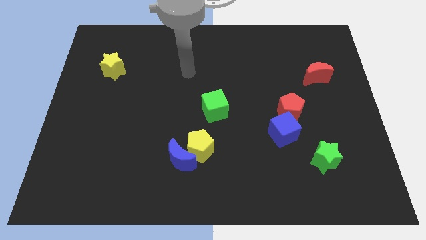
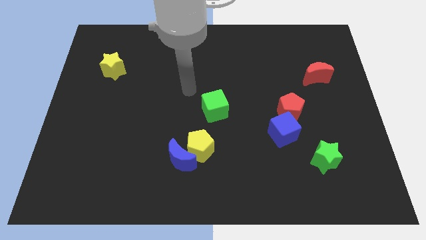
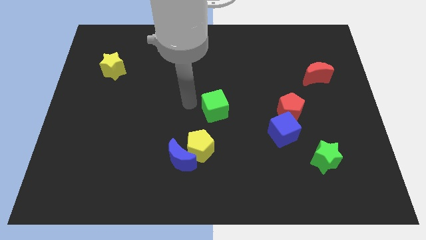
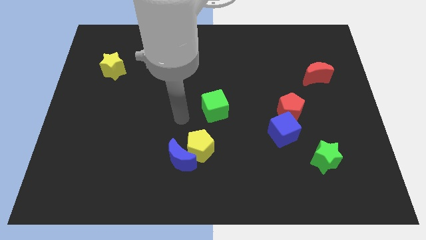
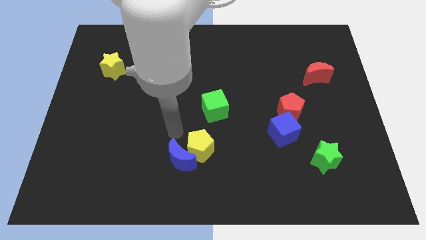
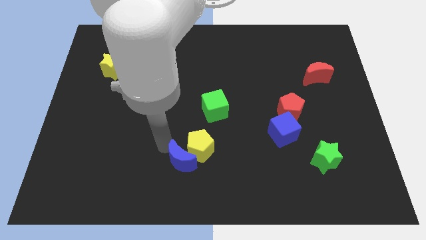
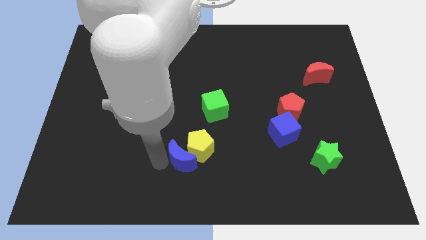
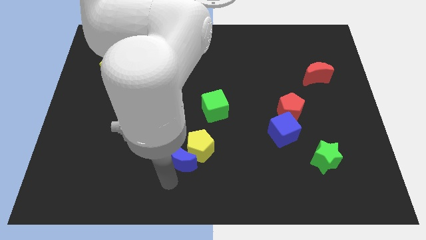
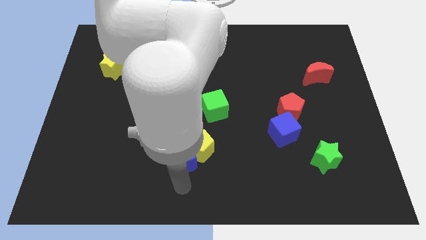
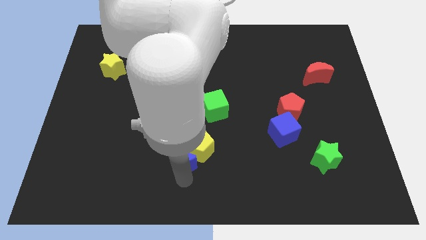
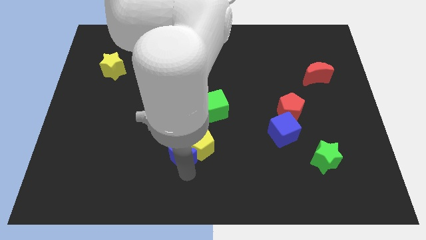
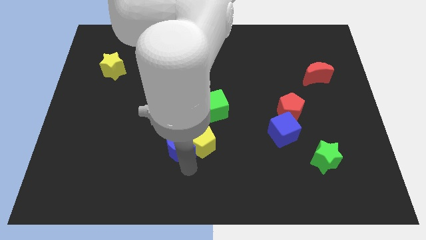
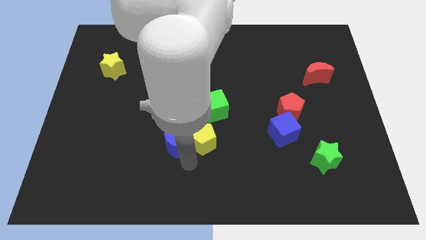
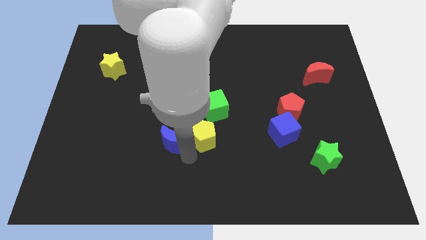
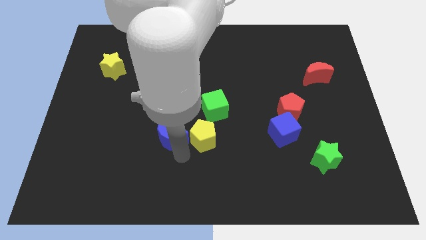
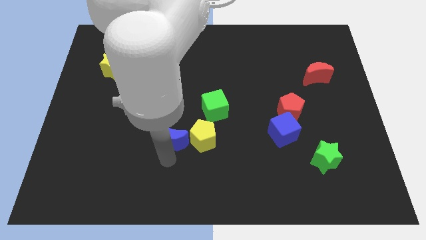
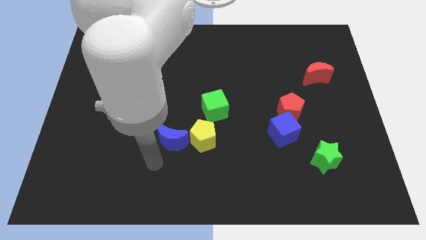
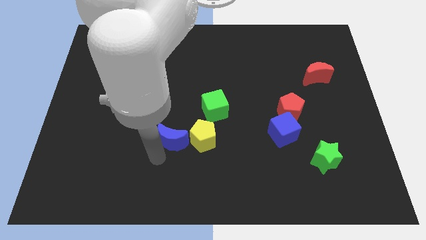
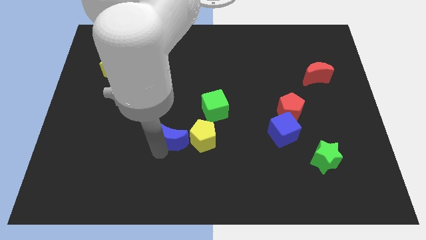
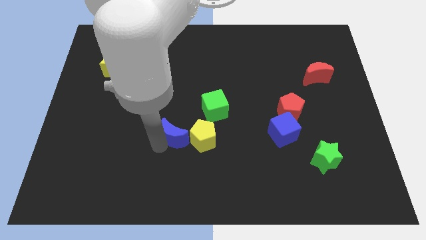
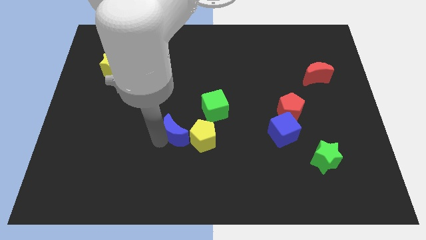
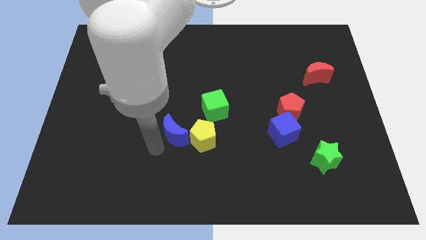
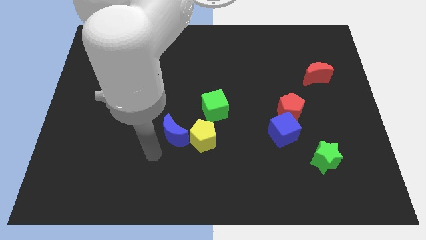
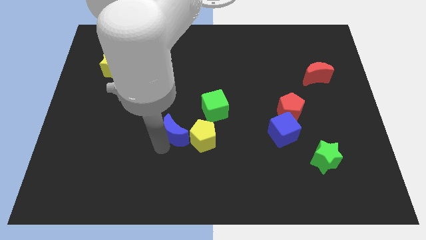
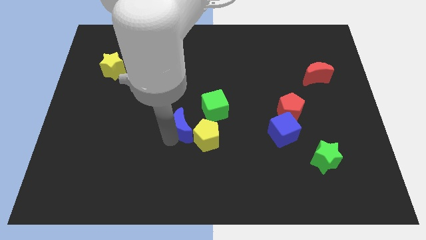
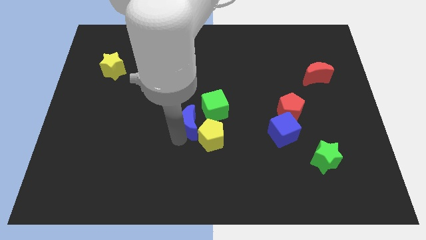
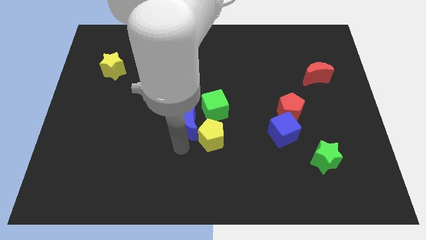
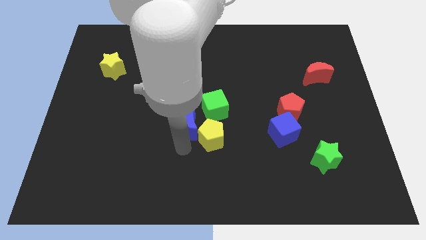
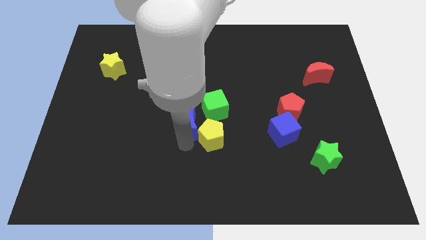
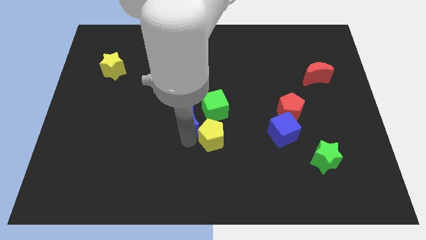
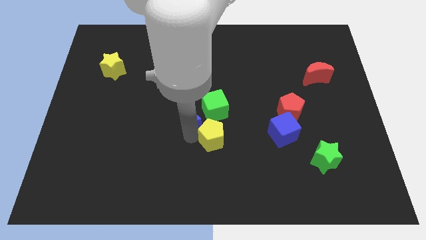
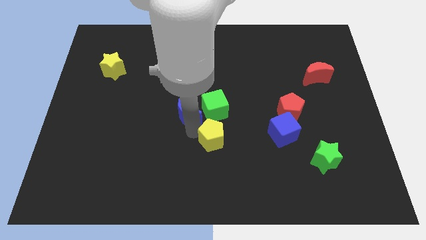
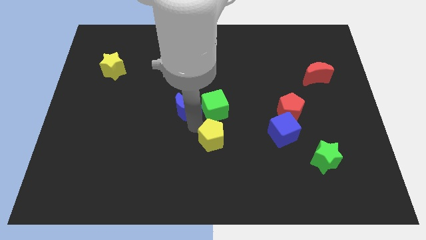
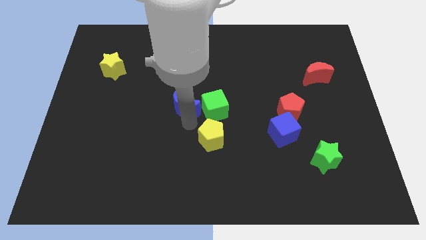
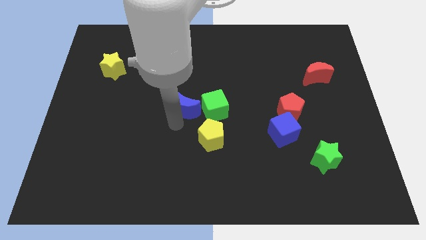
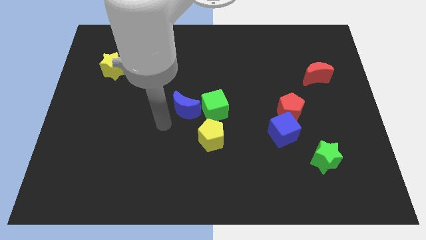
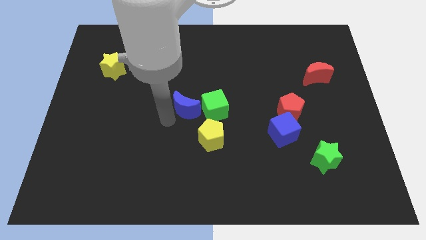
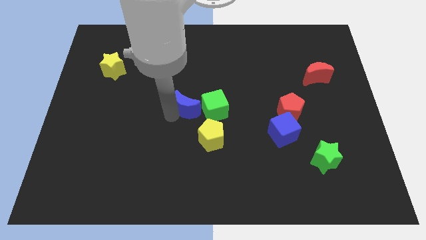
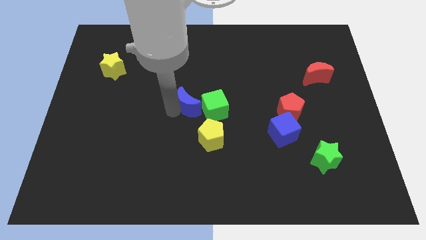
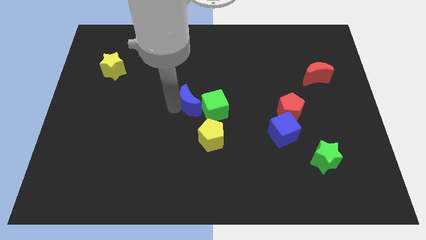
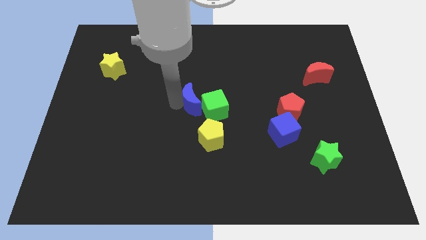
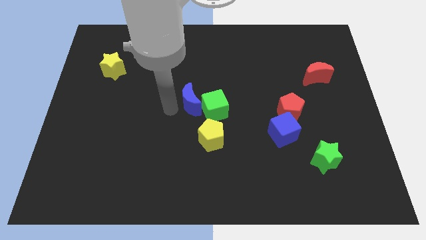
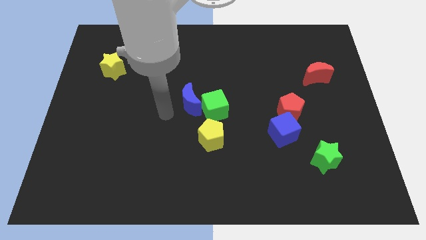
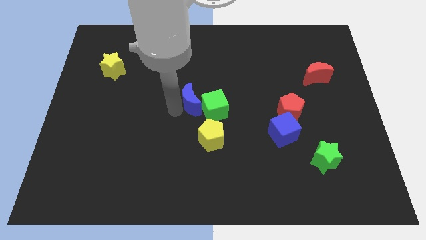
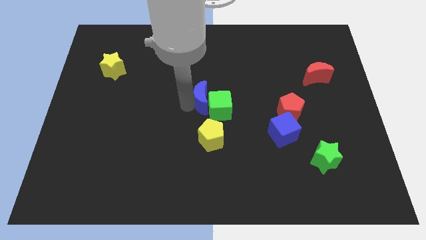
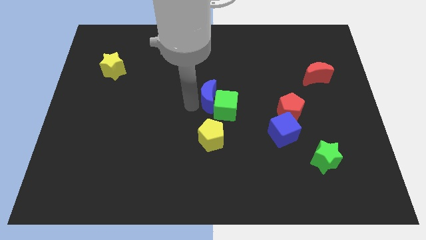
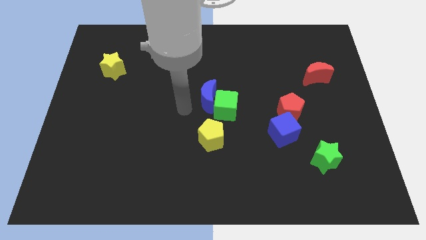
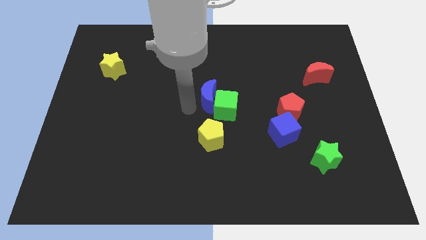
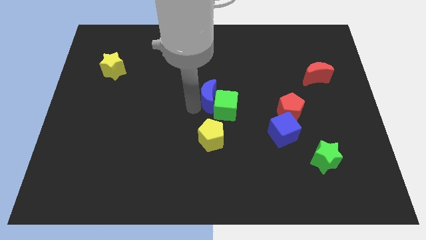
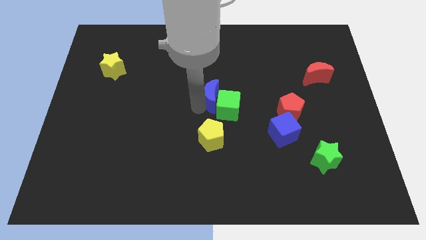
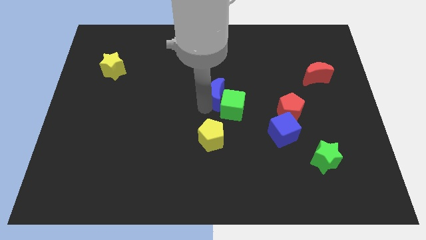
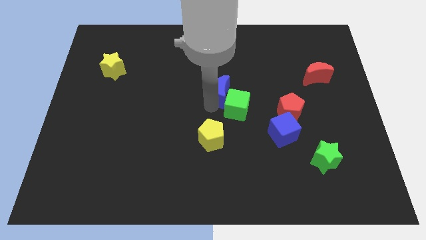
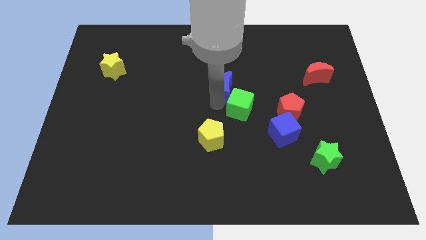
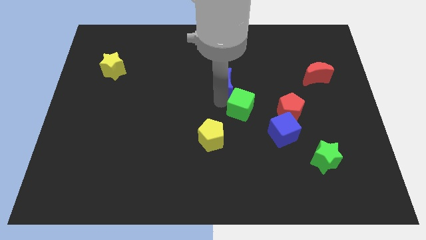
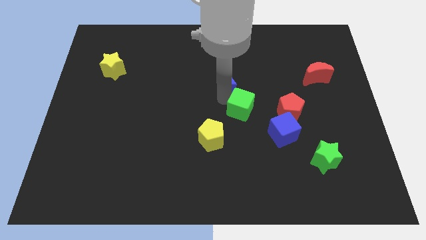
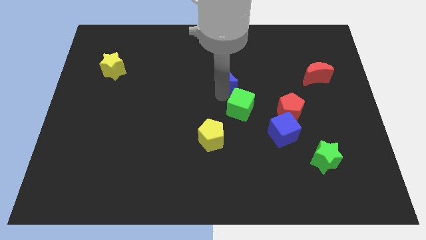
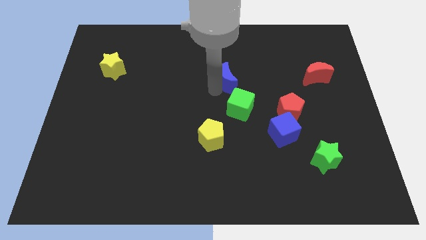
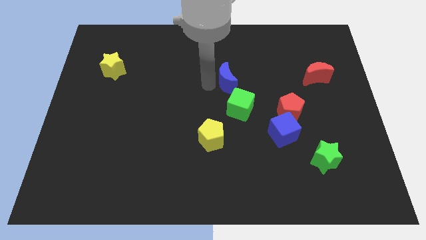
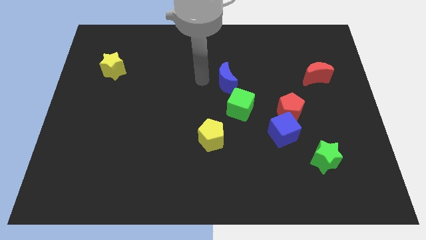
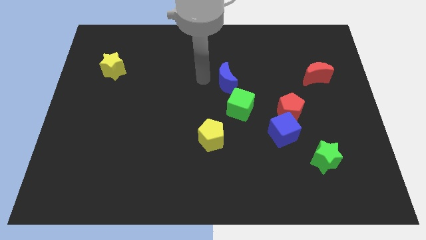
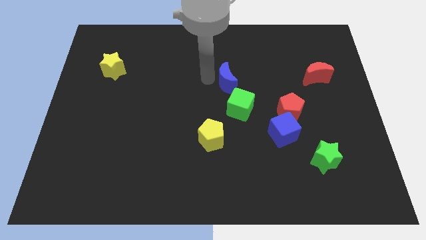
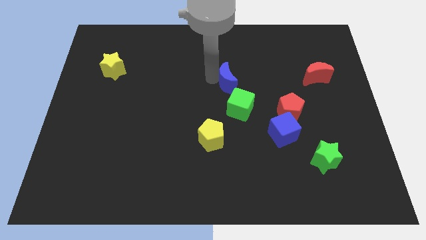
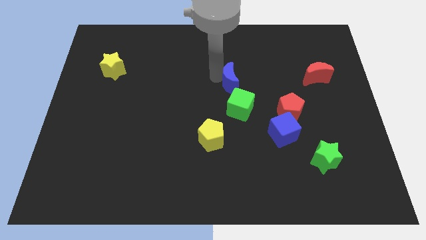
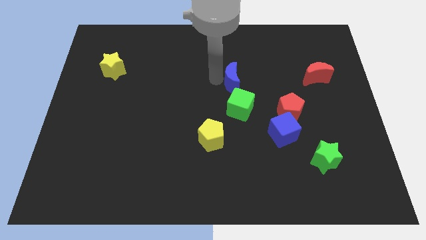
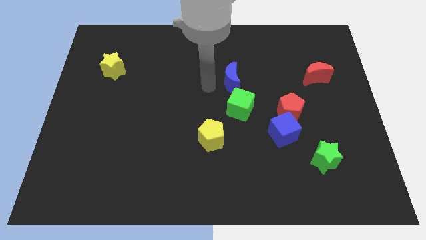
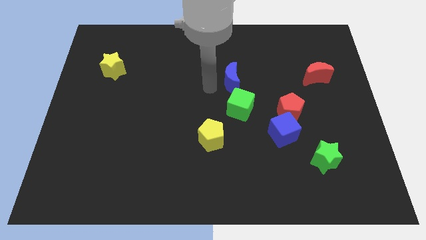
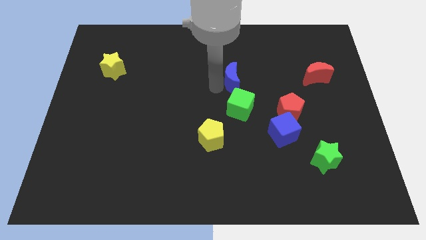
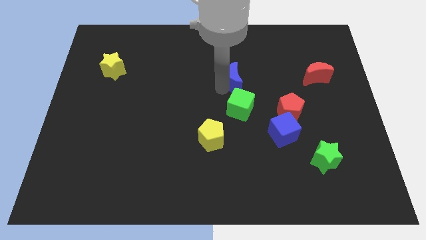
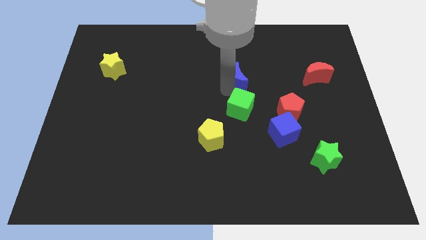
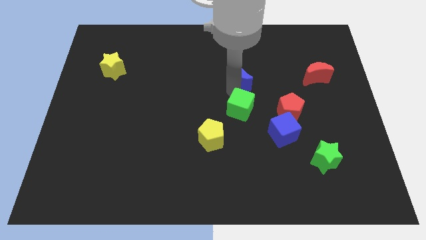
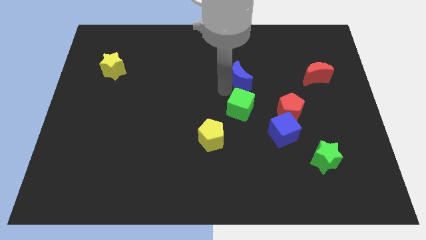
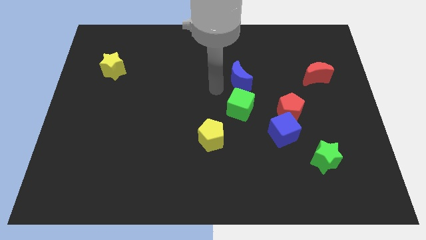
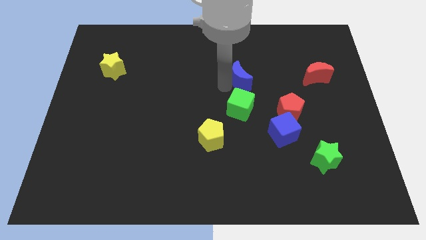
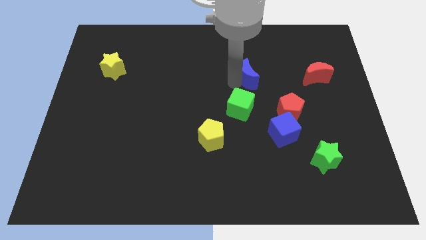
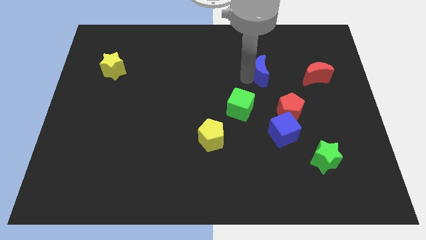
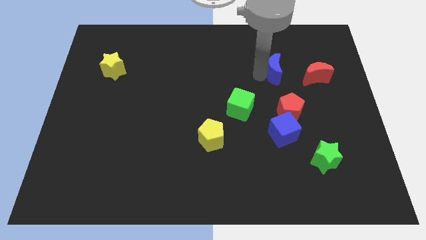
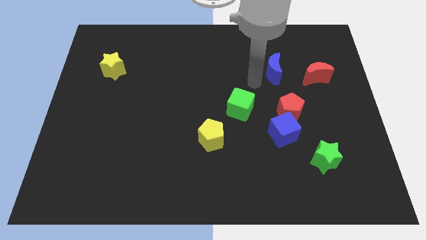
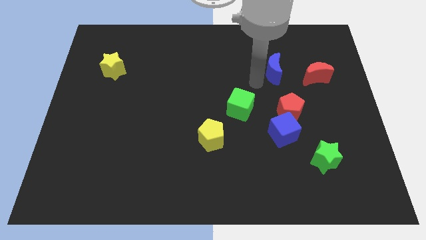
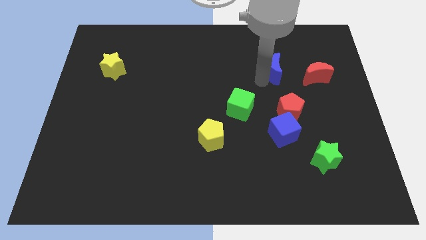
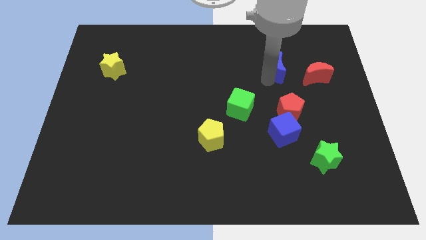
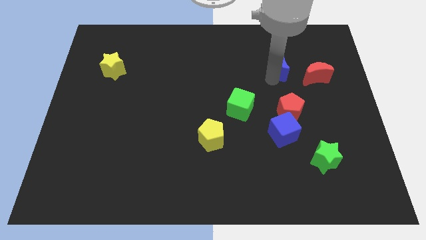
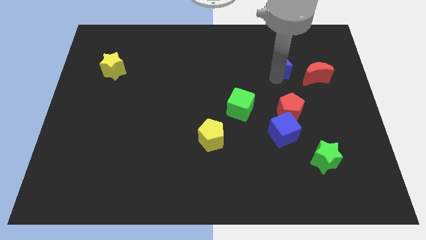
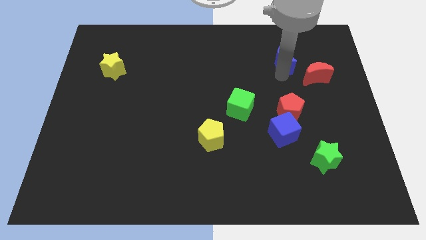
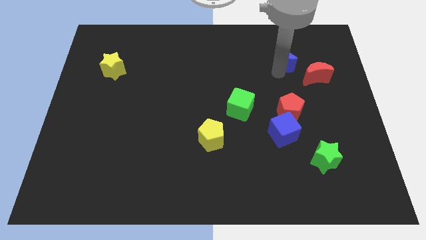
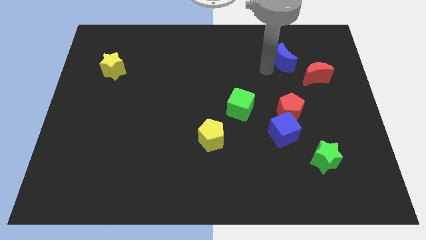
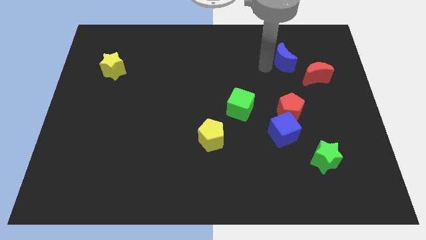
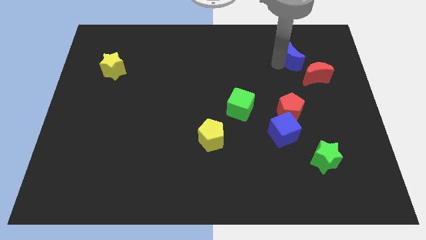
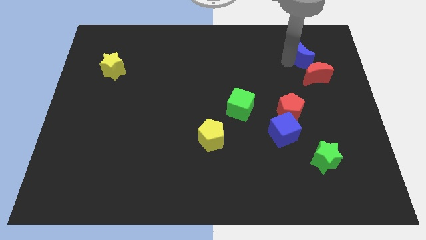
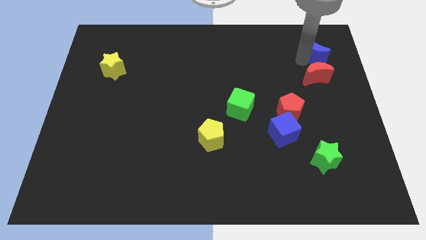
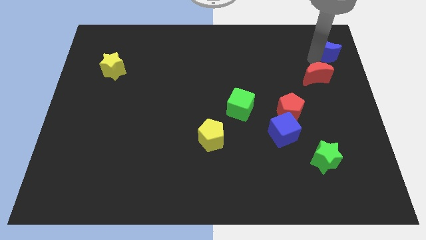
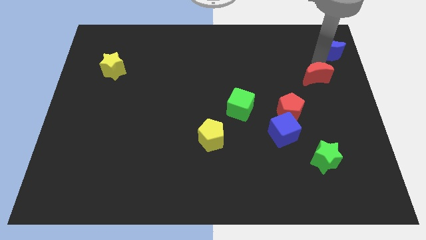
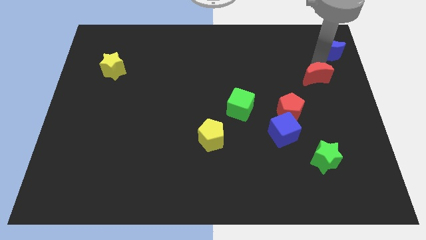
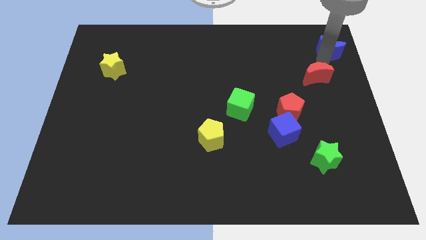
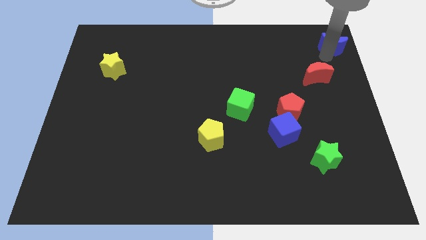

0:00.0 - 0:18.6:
push the blue moon to the top right corner
